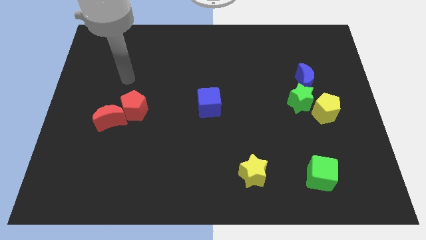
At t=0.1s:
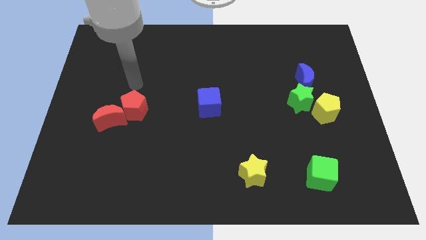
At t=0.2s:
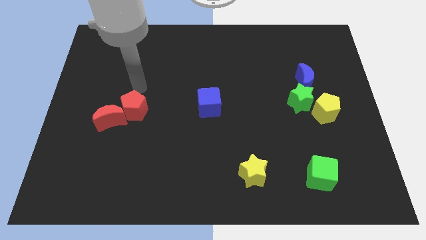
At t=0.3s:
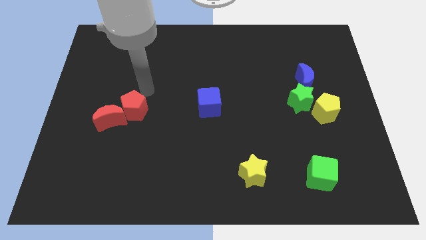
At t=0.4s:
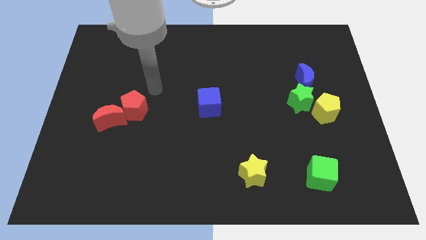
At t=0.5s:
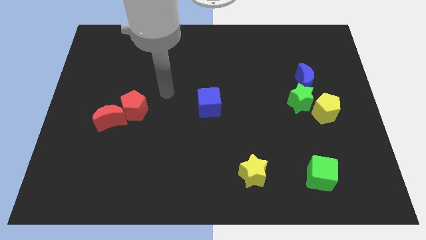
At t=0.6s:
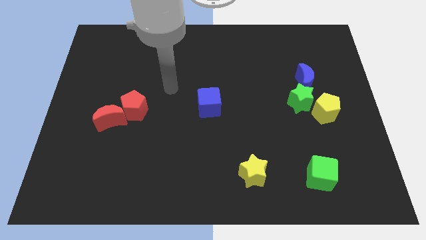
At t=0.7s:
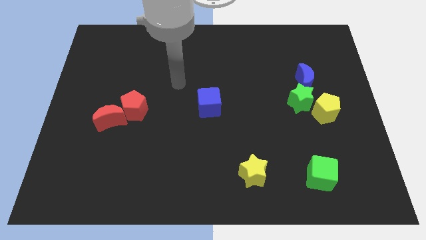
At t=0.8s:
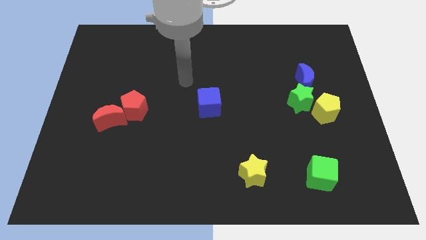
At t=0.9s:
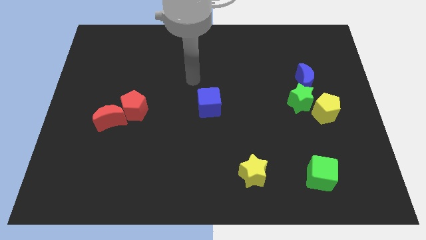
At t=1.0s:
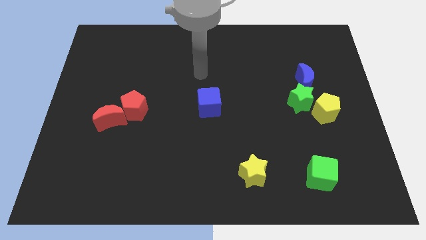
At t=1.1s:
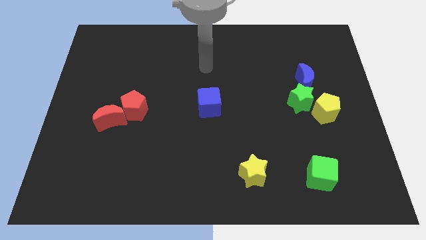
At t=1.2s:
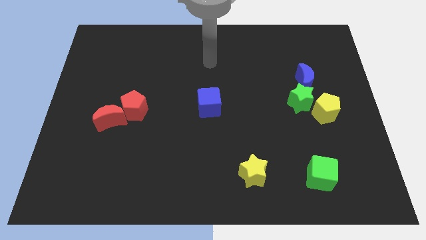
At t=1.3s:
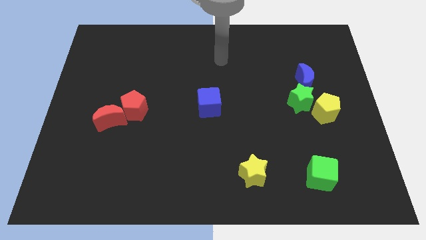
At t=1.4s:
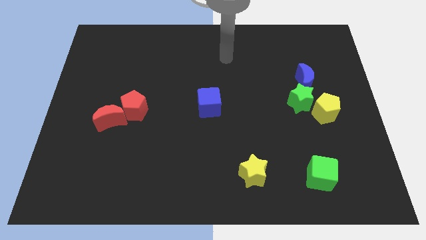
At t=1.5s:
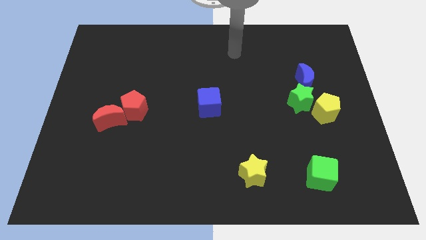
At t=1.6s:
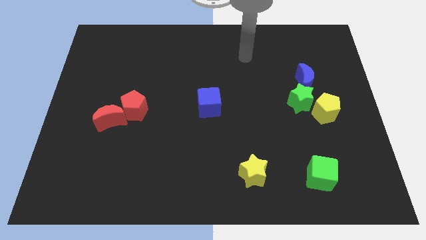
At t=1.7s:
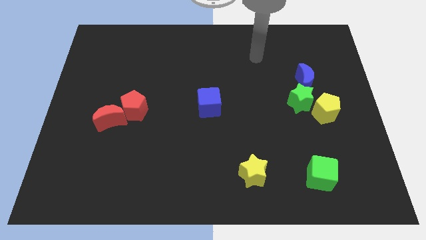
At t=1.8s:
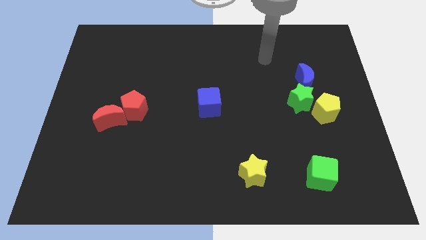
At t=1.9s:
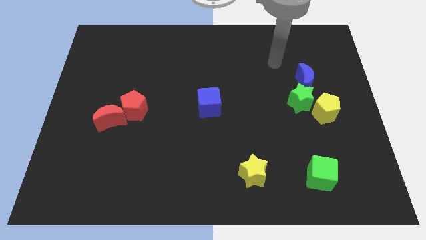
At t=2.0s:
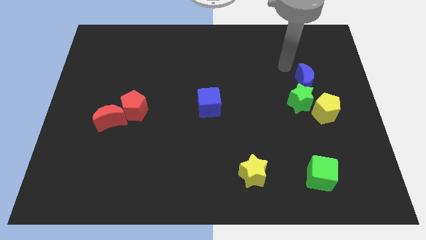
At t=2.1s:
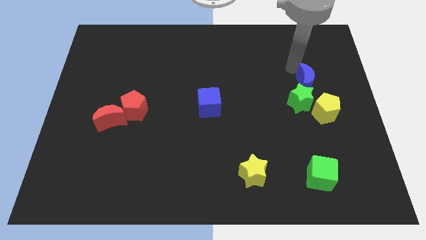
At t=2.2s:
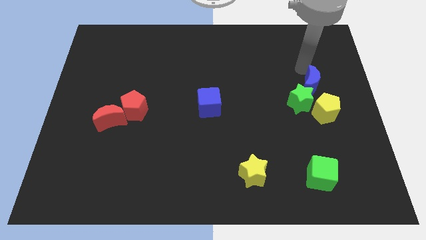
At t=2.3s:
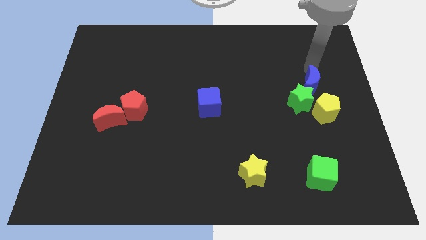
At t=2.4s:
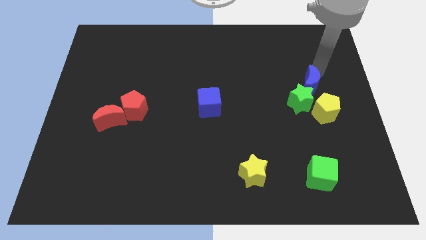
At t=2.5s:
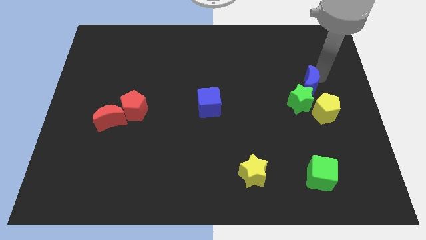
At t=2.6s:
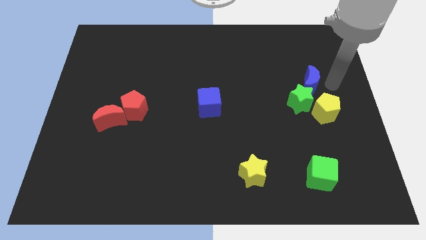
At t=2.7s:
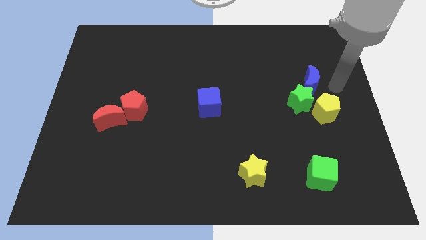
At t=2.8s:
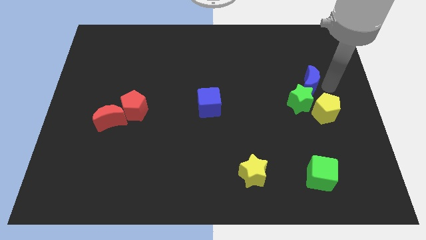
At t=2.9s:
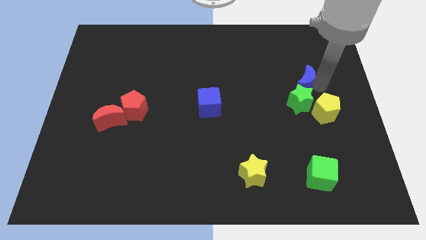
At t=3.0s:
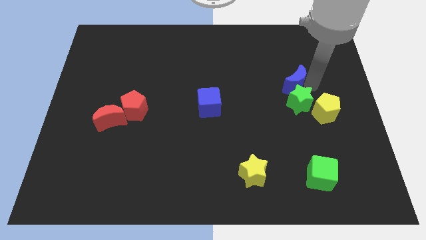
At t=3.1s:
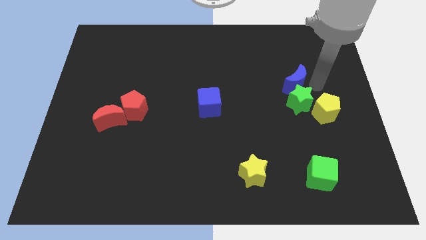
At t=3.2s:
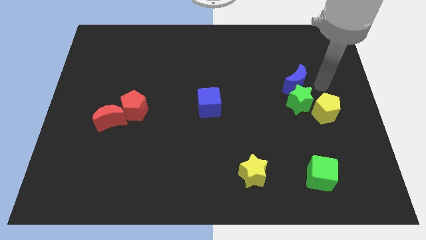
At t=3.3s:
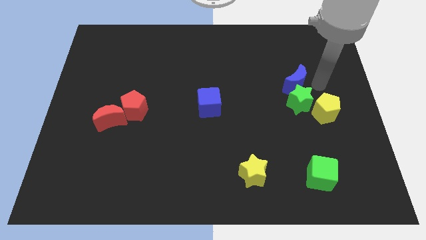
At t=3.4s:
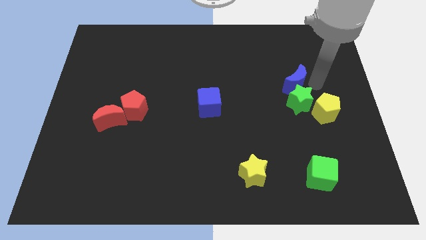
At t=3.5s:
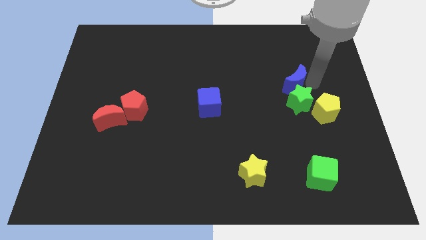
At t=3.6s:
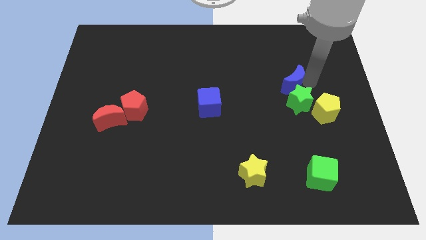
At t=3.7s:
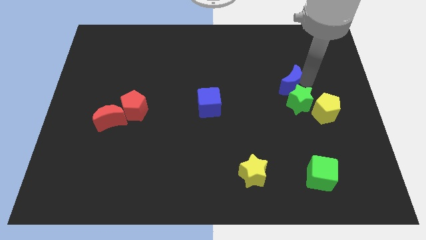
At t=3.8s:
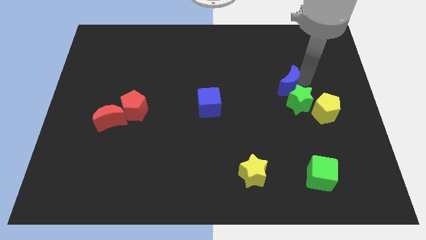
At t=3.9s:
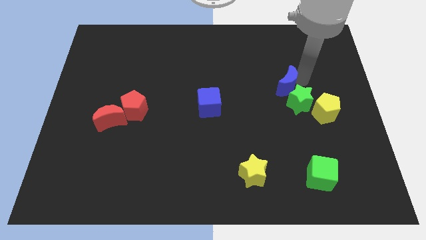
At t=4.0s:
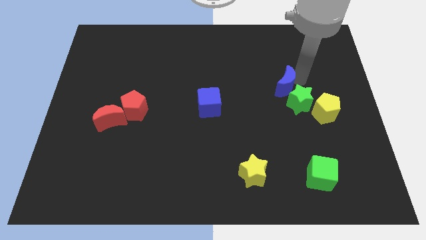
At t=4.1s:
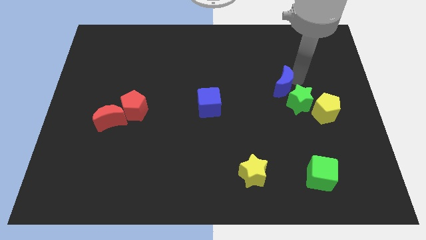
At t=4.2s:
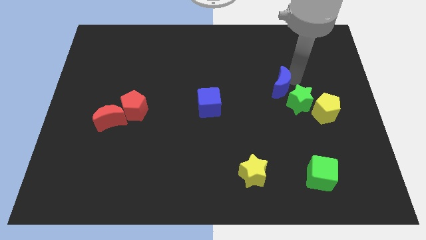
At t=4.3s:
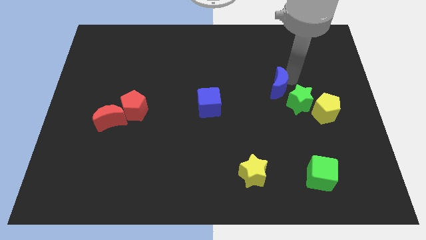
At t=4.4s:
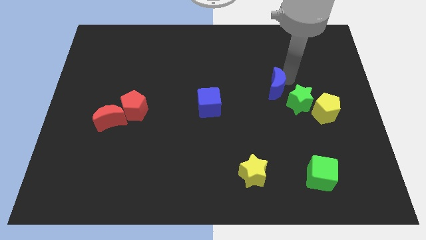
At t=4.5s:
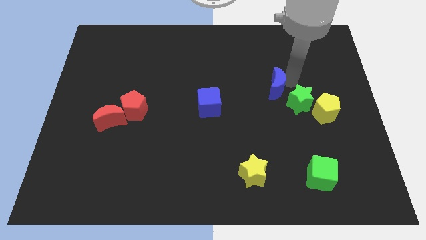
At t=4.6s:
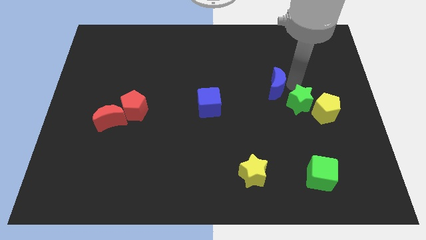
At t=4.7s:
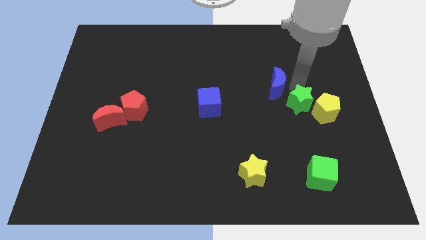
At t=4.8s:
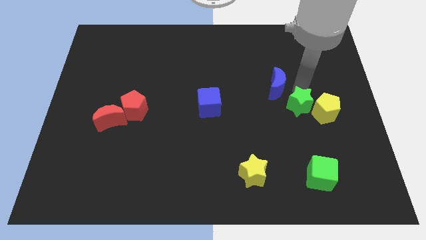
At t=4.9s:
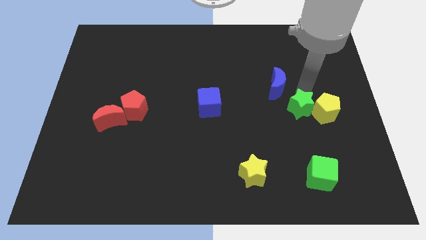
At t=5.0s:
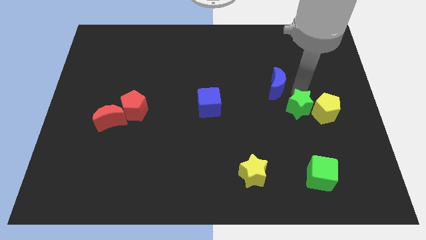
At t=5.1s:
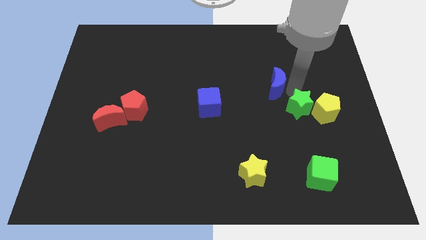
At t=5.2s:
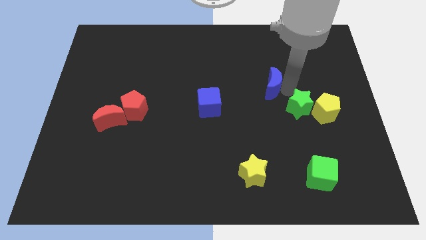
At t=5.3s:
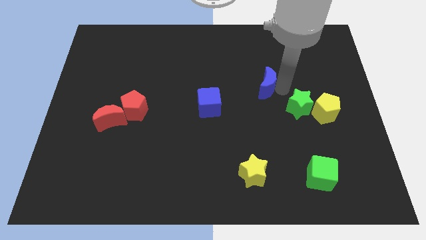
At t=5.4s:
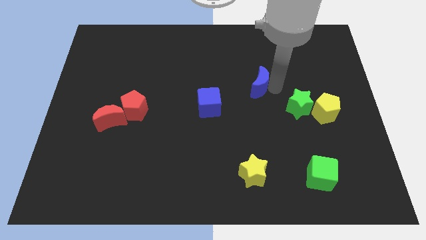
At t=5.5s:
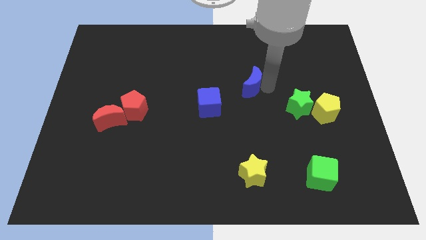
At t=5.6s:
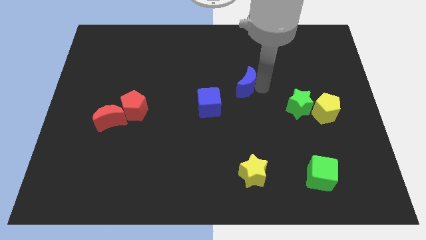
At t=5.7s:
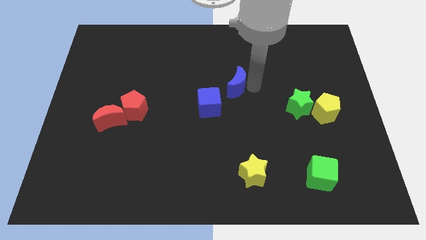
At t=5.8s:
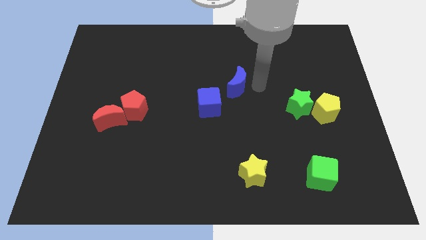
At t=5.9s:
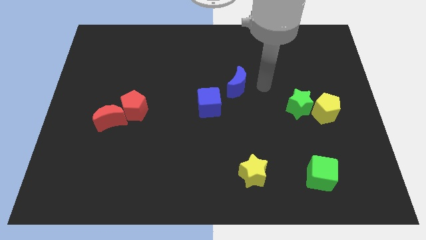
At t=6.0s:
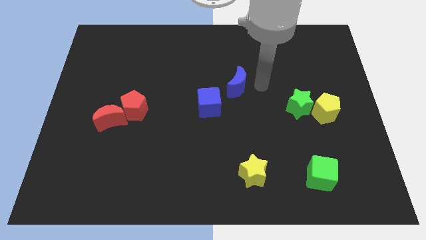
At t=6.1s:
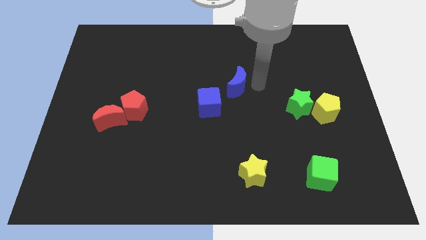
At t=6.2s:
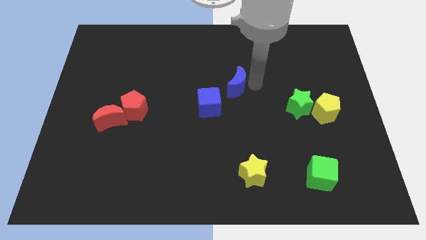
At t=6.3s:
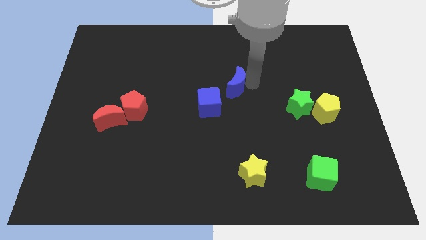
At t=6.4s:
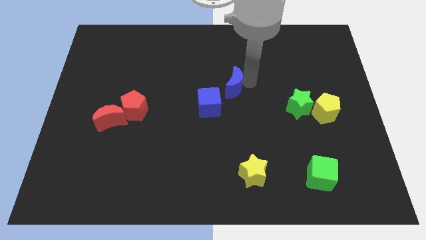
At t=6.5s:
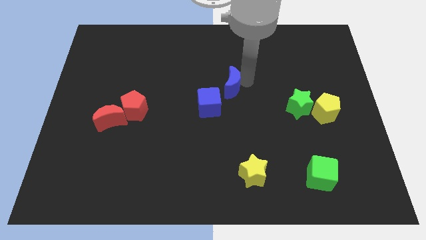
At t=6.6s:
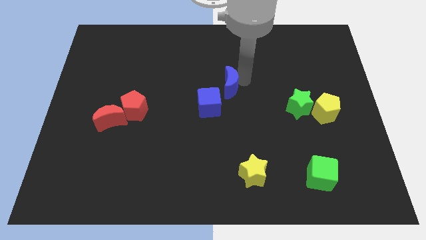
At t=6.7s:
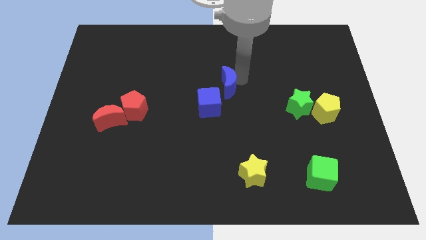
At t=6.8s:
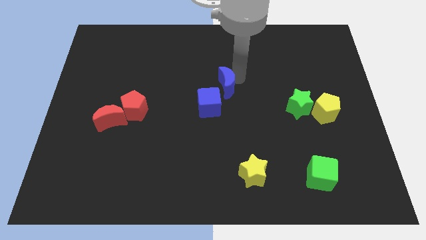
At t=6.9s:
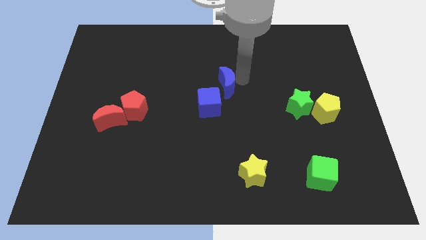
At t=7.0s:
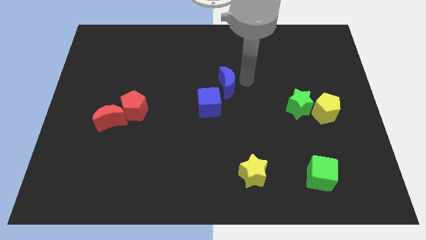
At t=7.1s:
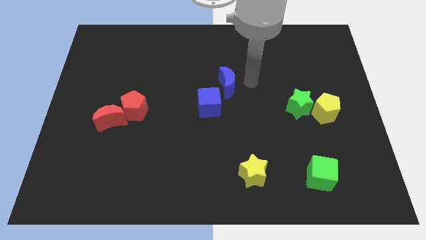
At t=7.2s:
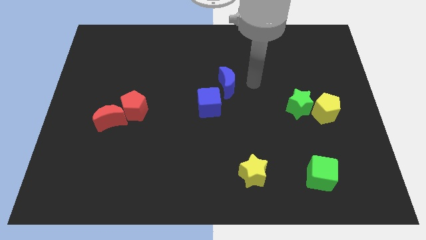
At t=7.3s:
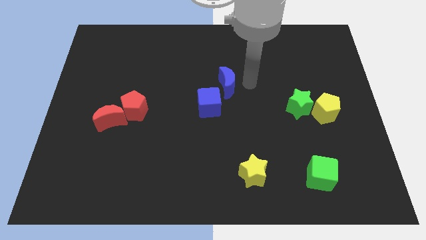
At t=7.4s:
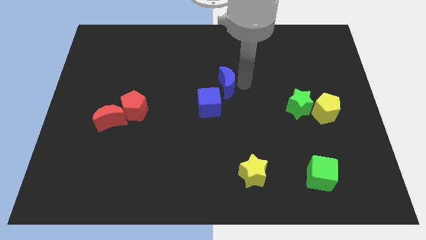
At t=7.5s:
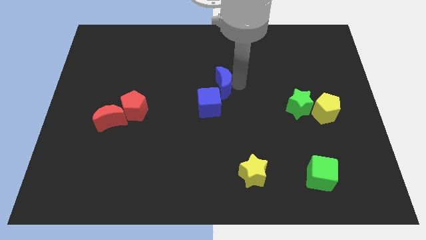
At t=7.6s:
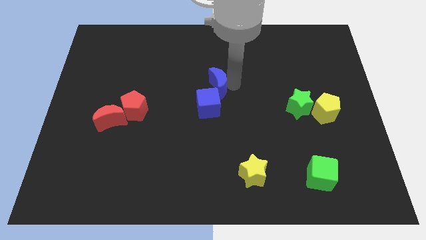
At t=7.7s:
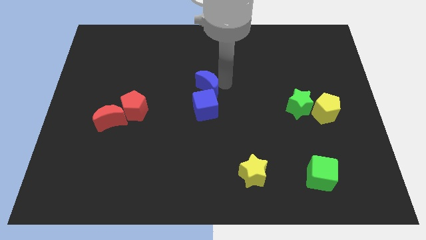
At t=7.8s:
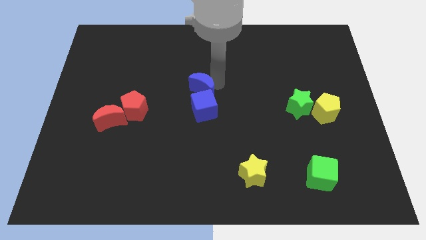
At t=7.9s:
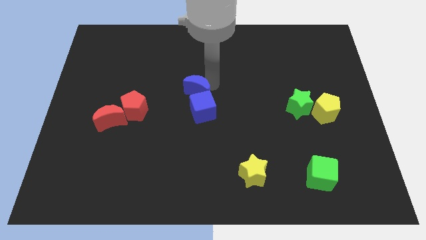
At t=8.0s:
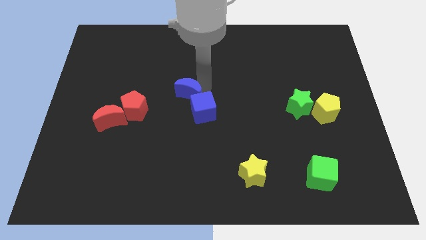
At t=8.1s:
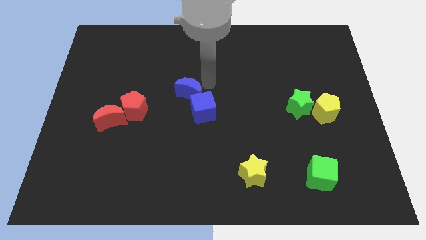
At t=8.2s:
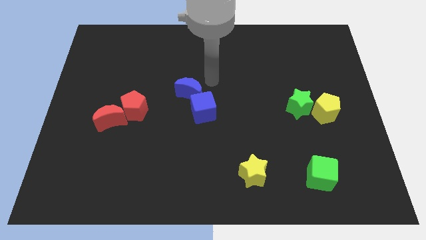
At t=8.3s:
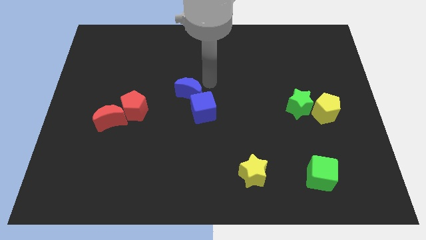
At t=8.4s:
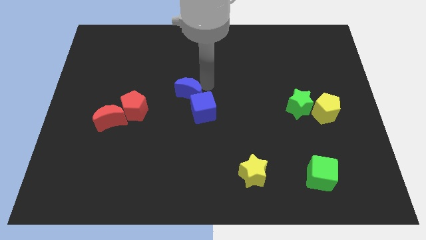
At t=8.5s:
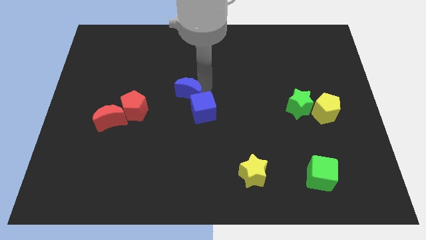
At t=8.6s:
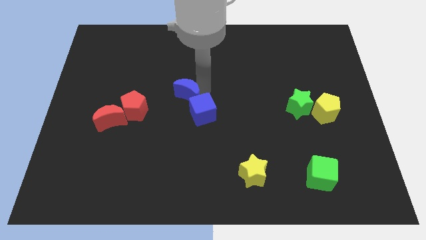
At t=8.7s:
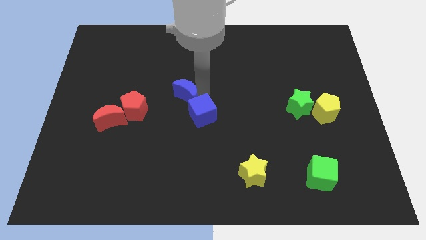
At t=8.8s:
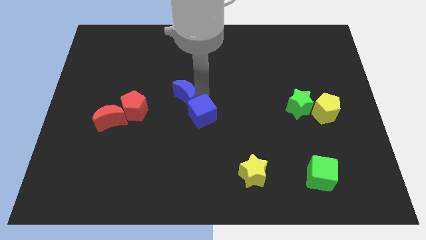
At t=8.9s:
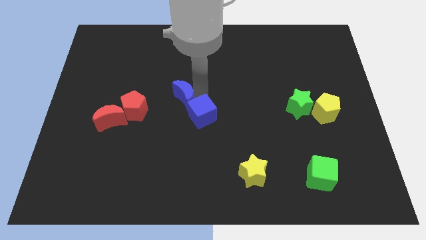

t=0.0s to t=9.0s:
push the blue moon left of the blue cube
